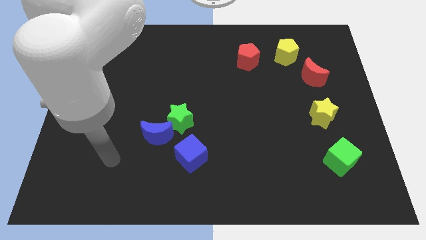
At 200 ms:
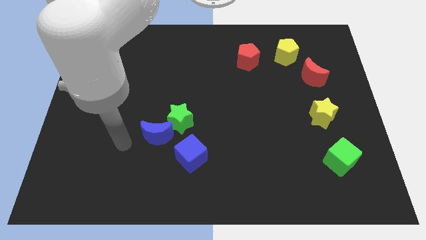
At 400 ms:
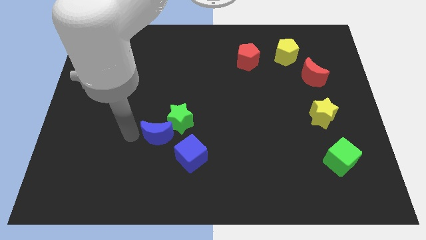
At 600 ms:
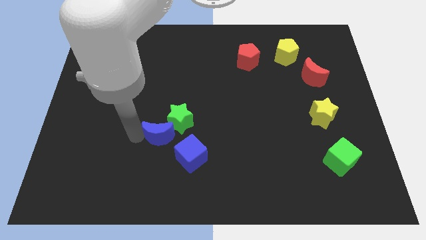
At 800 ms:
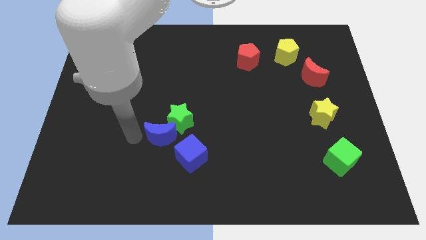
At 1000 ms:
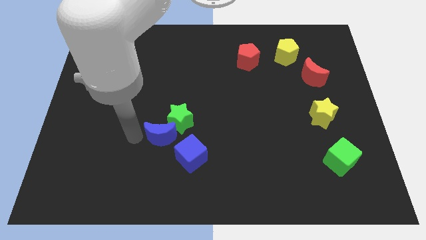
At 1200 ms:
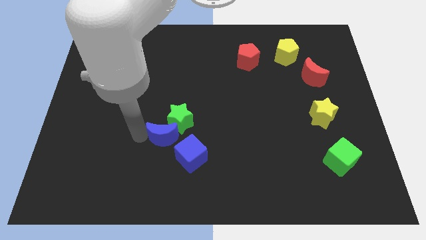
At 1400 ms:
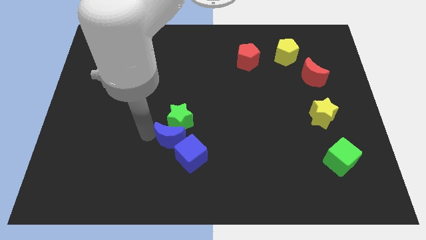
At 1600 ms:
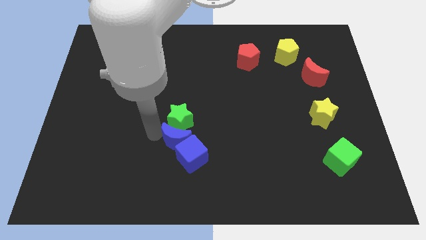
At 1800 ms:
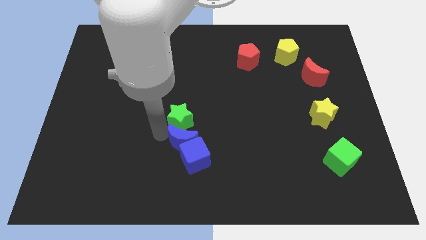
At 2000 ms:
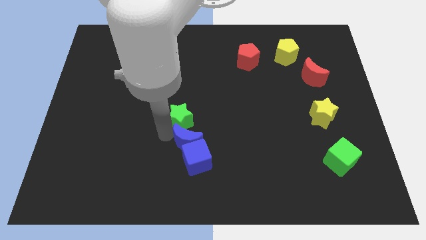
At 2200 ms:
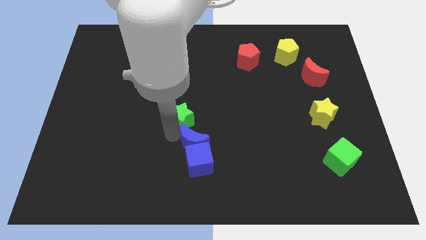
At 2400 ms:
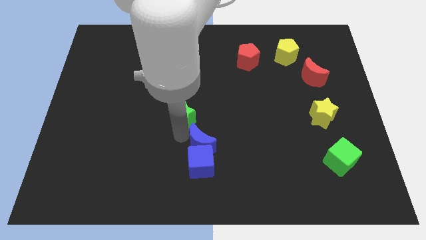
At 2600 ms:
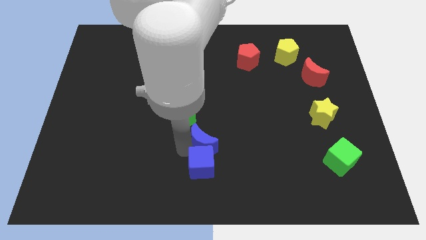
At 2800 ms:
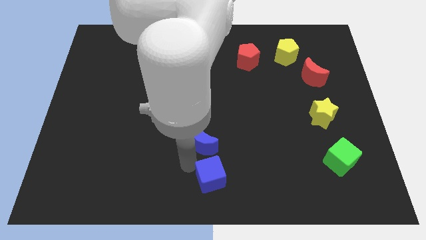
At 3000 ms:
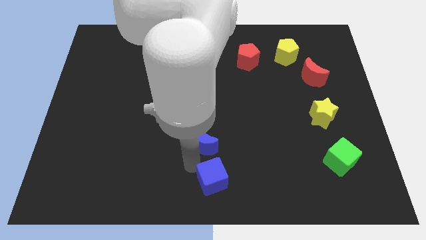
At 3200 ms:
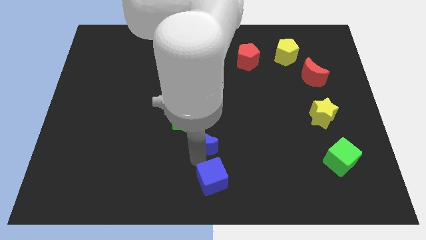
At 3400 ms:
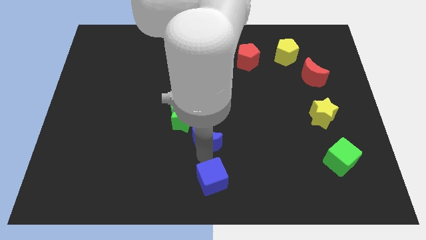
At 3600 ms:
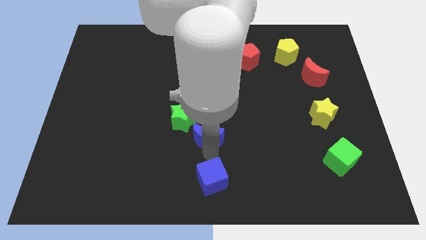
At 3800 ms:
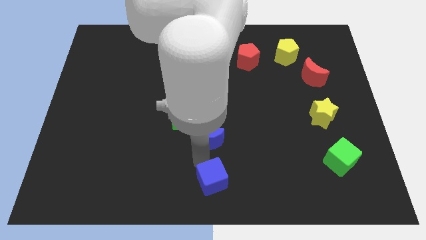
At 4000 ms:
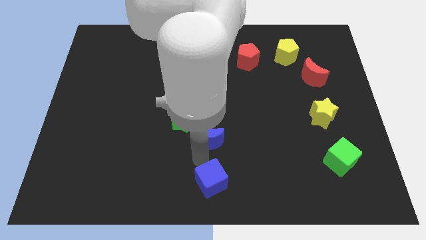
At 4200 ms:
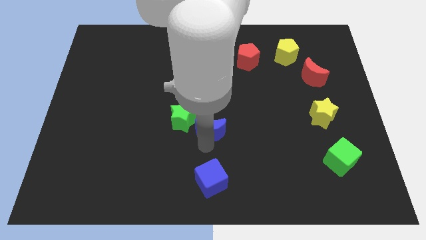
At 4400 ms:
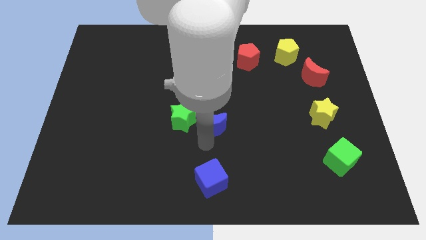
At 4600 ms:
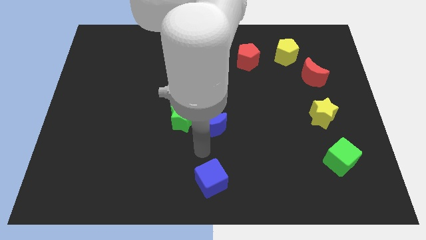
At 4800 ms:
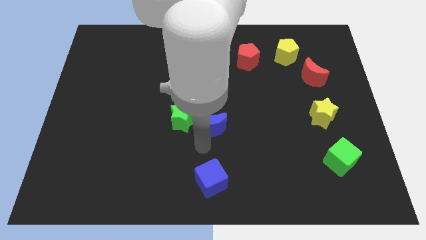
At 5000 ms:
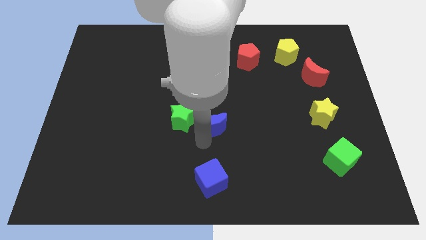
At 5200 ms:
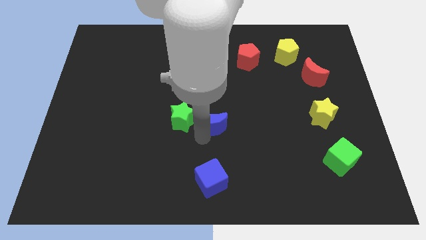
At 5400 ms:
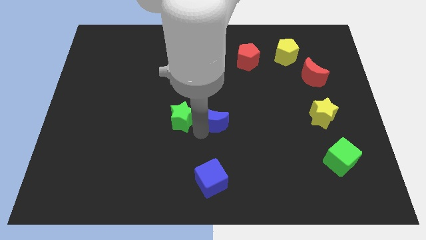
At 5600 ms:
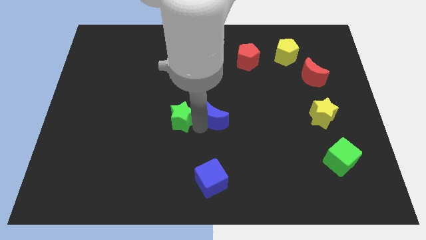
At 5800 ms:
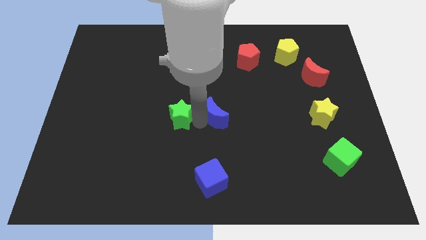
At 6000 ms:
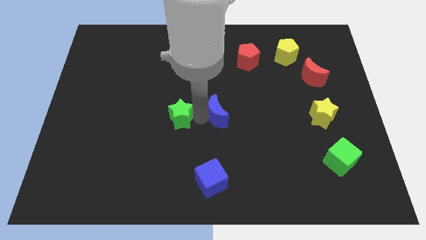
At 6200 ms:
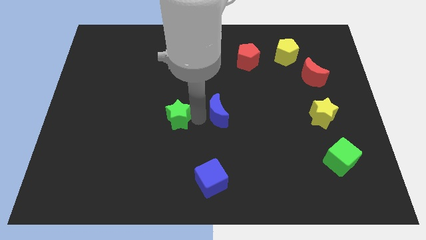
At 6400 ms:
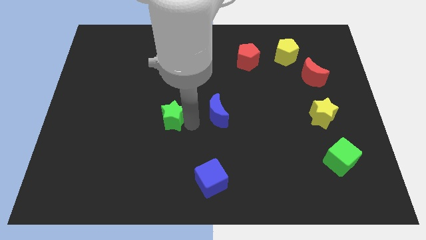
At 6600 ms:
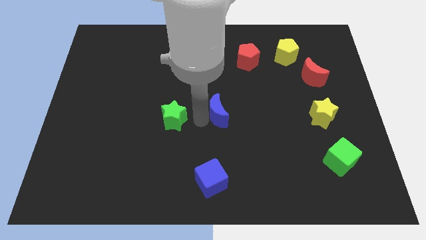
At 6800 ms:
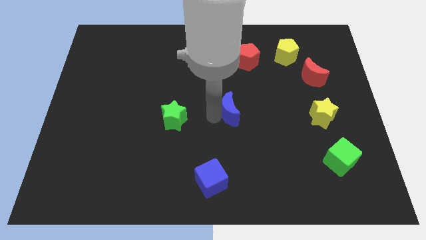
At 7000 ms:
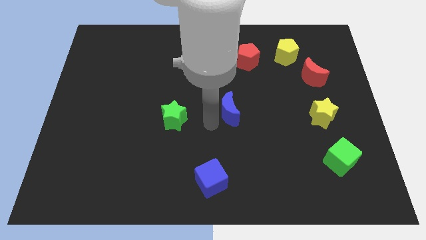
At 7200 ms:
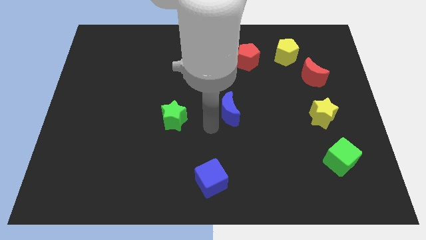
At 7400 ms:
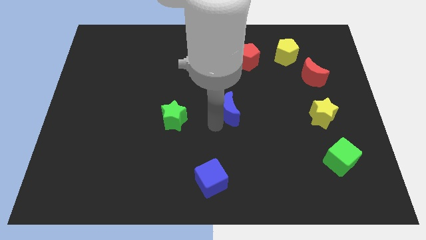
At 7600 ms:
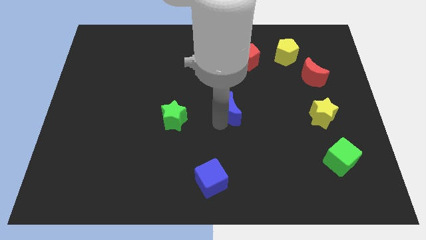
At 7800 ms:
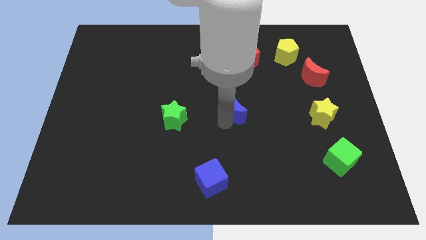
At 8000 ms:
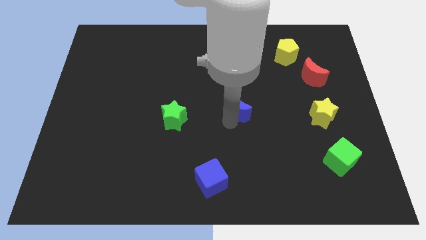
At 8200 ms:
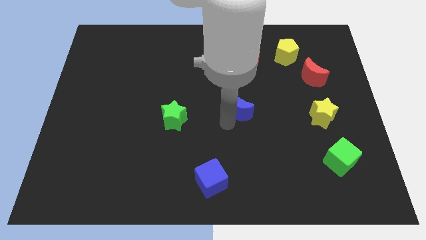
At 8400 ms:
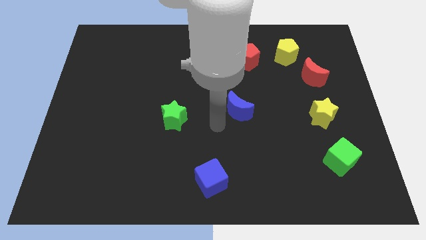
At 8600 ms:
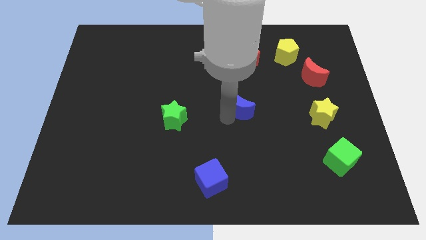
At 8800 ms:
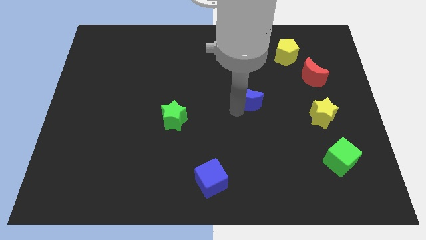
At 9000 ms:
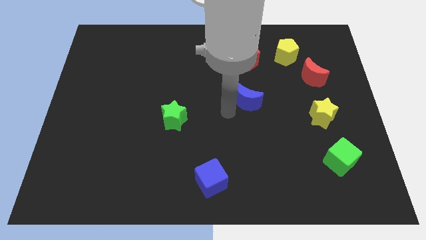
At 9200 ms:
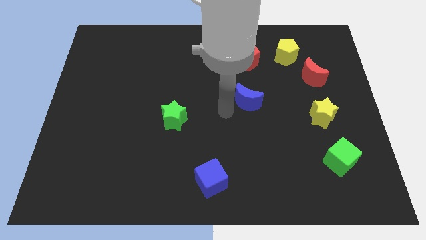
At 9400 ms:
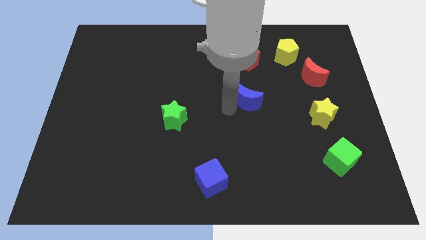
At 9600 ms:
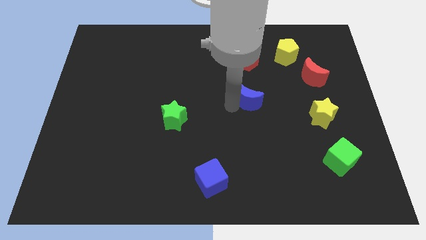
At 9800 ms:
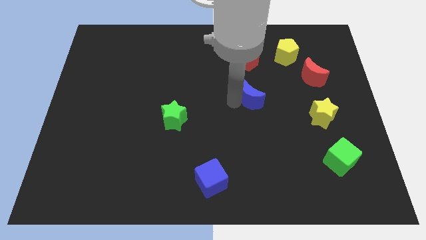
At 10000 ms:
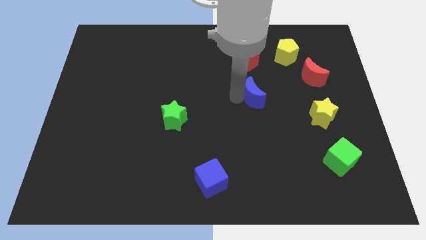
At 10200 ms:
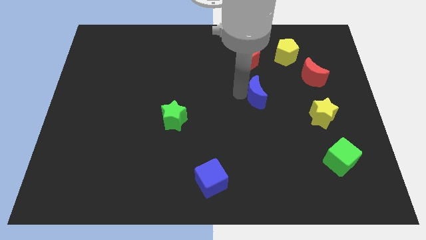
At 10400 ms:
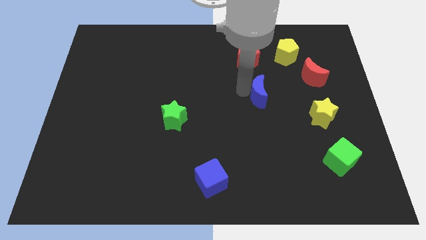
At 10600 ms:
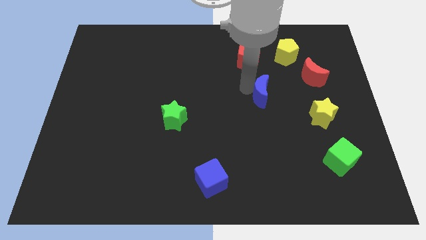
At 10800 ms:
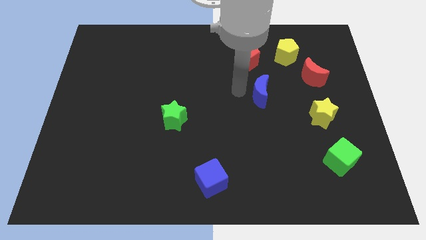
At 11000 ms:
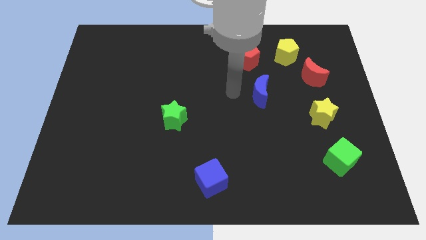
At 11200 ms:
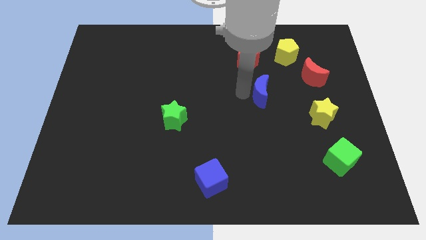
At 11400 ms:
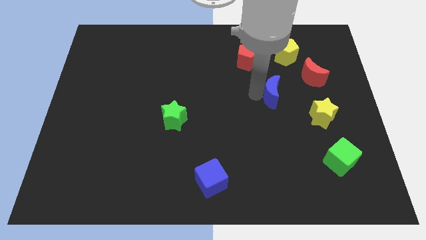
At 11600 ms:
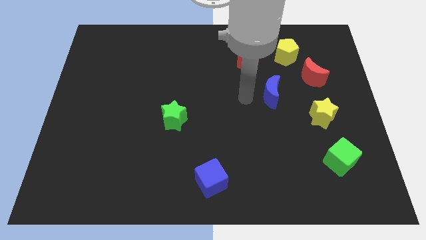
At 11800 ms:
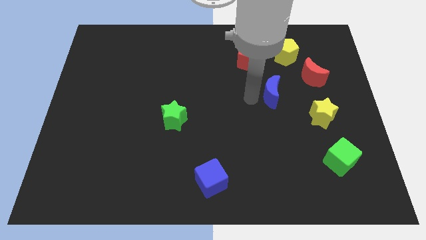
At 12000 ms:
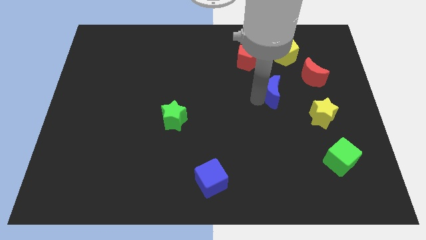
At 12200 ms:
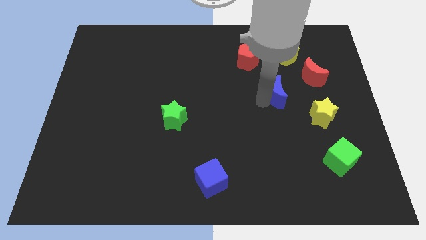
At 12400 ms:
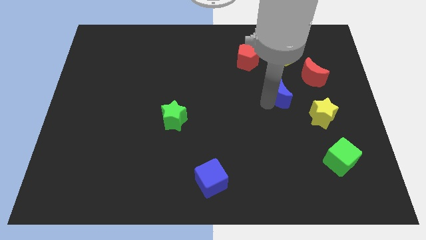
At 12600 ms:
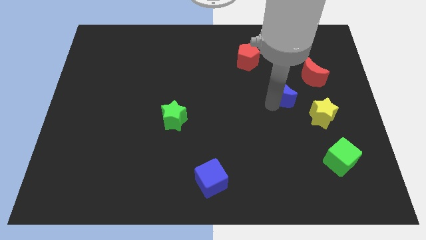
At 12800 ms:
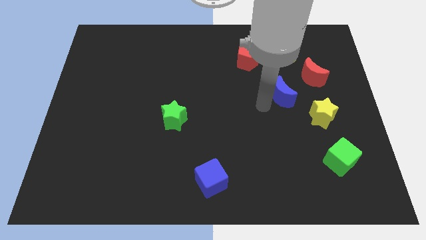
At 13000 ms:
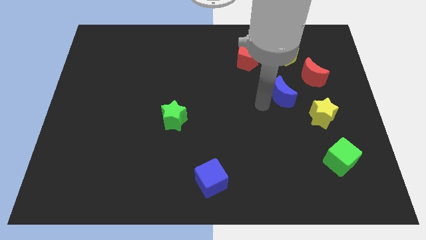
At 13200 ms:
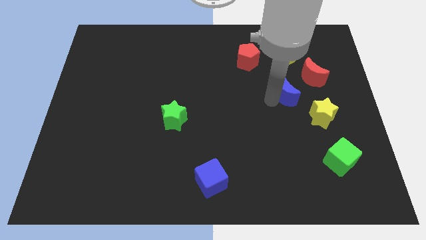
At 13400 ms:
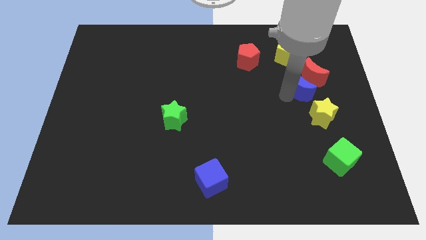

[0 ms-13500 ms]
slide the blue moon to the red moon

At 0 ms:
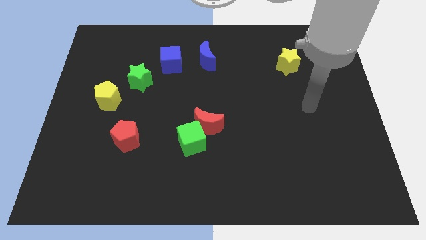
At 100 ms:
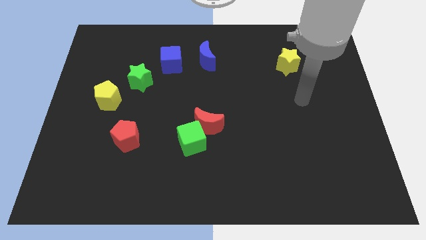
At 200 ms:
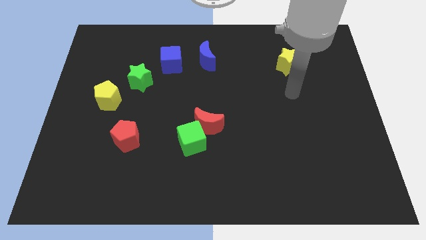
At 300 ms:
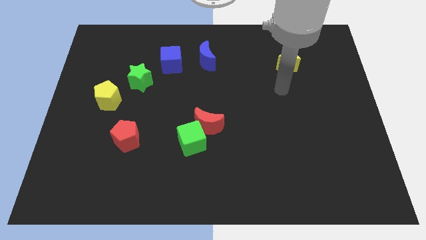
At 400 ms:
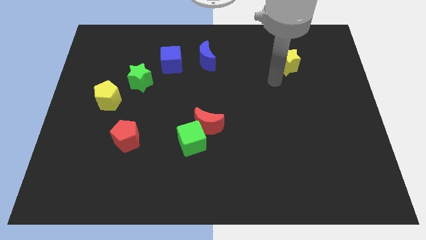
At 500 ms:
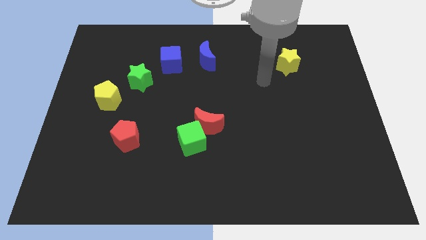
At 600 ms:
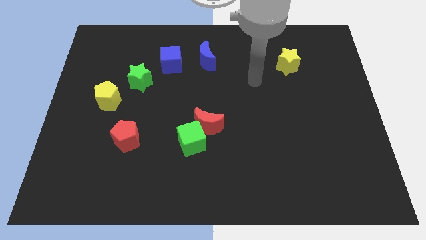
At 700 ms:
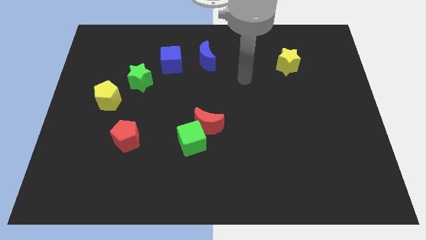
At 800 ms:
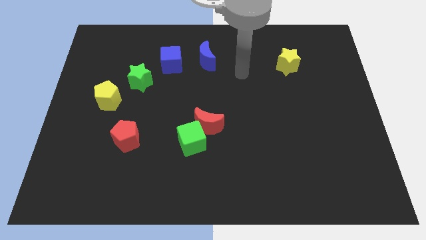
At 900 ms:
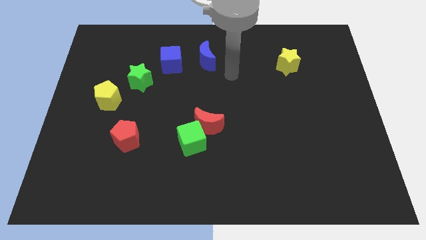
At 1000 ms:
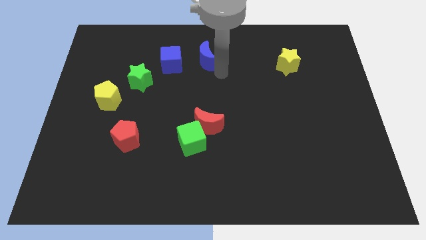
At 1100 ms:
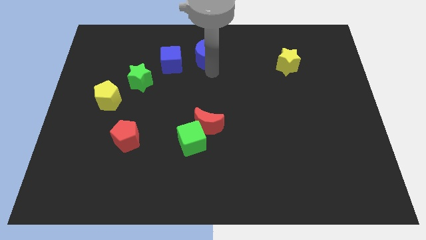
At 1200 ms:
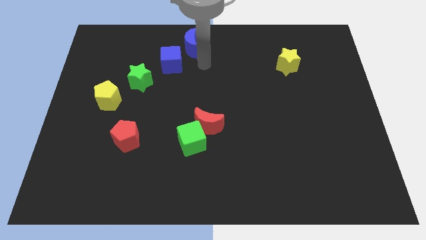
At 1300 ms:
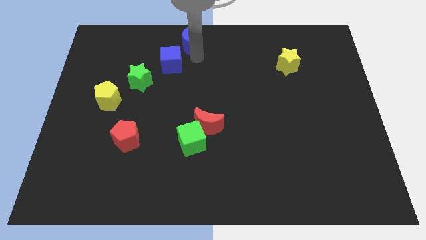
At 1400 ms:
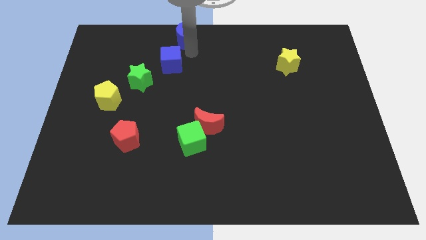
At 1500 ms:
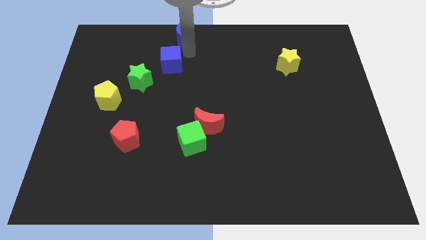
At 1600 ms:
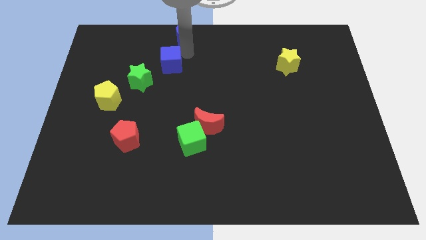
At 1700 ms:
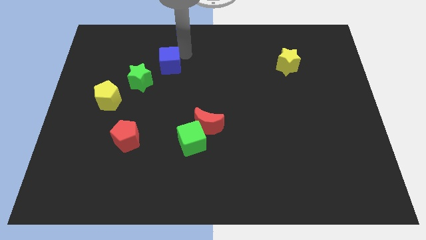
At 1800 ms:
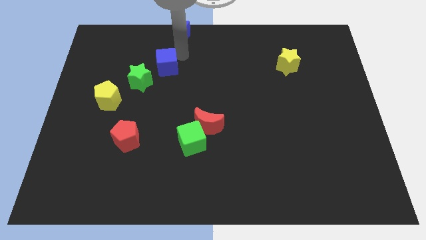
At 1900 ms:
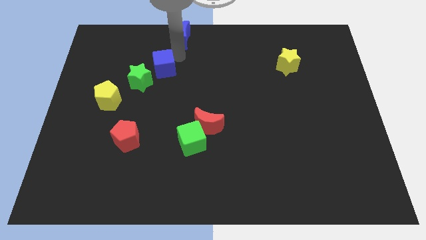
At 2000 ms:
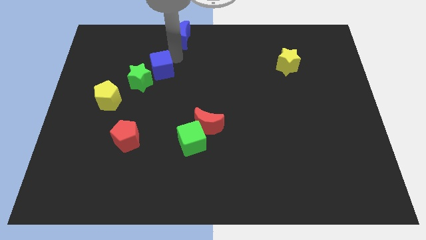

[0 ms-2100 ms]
slide the blue cube close to the green star
